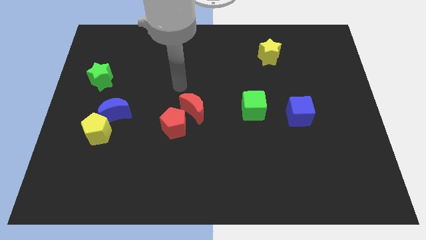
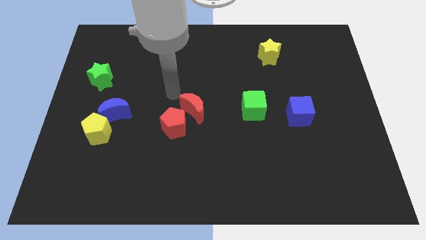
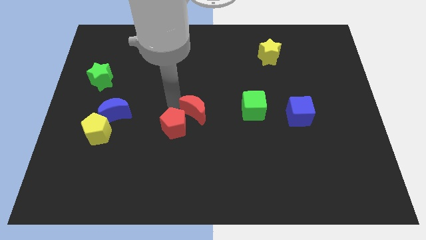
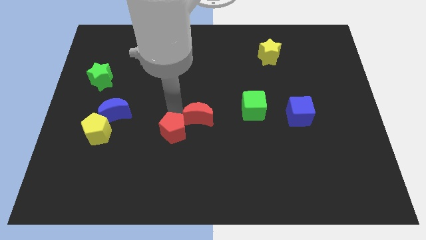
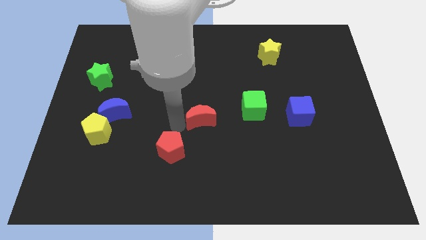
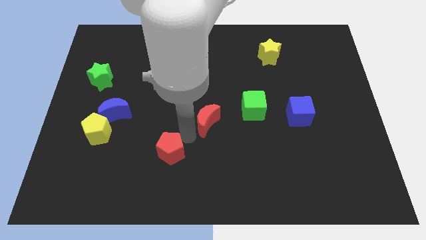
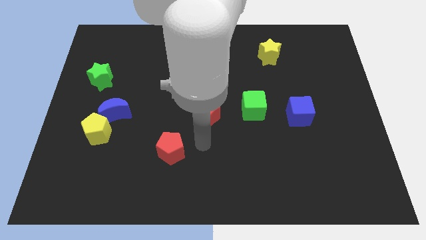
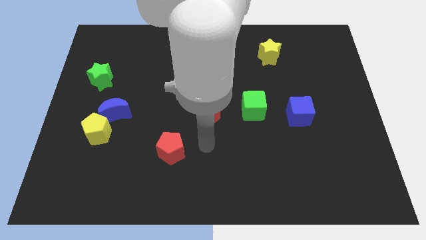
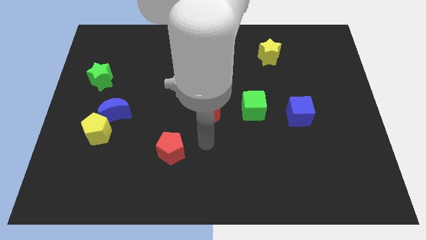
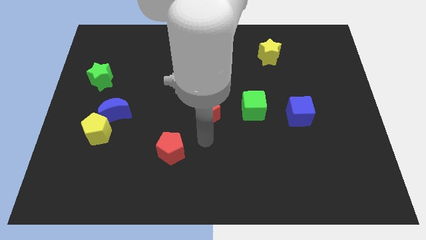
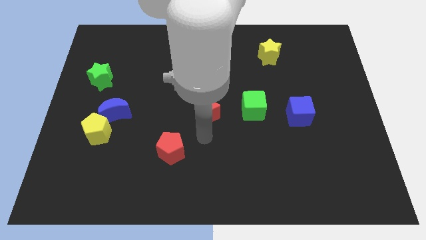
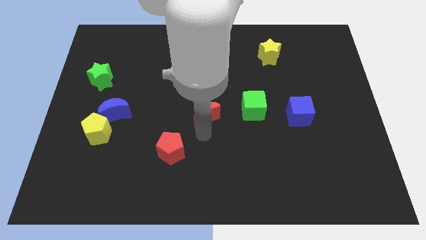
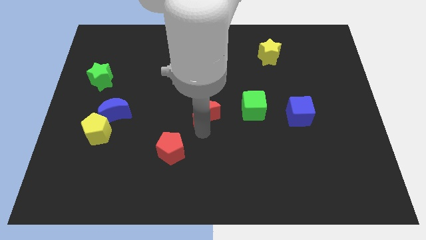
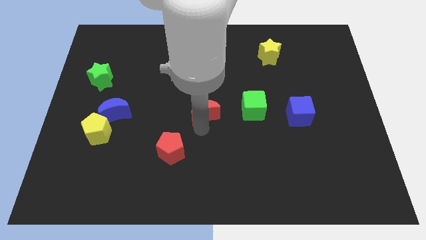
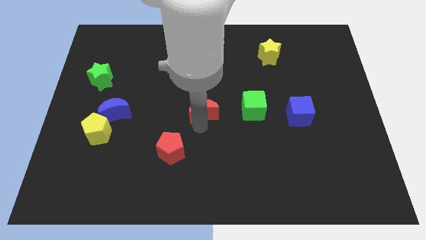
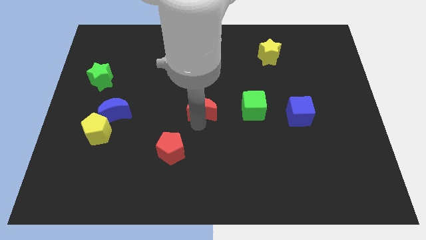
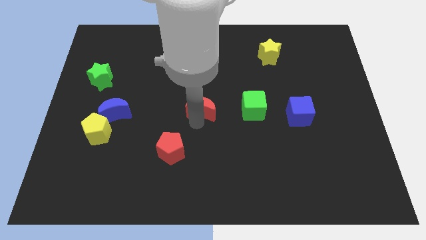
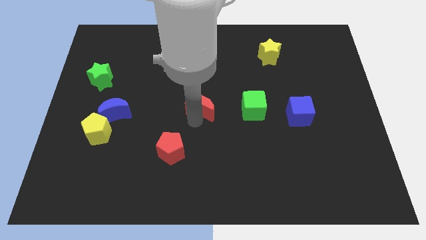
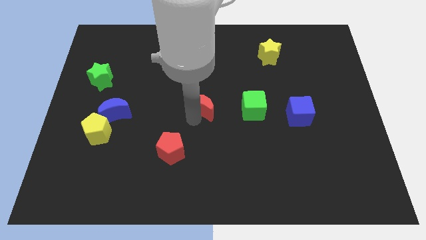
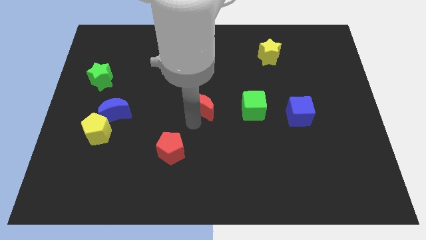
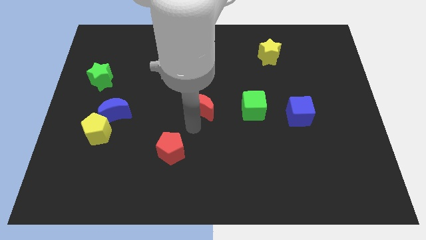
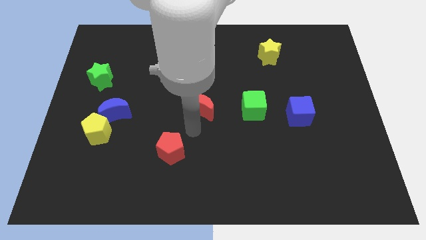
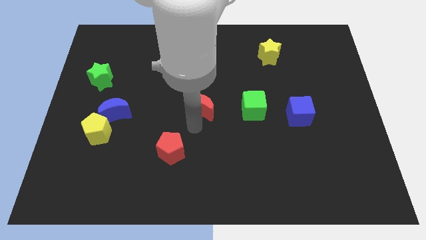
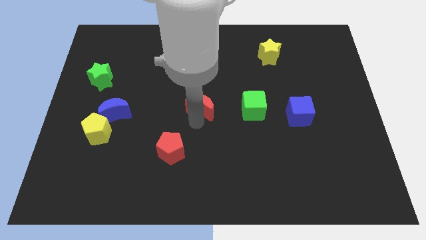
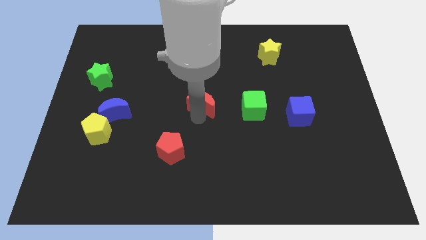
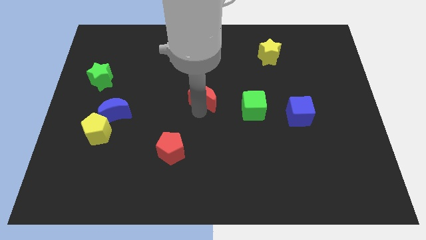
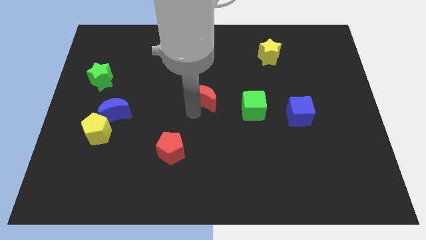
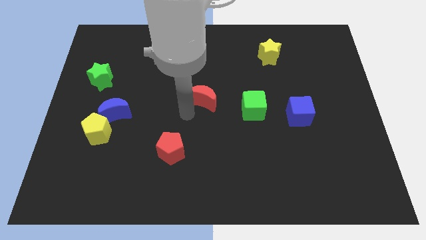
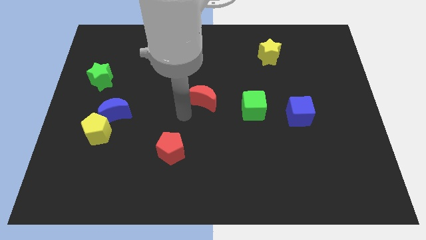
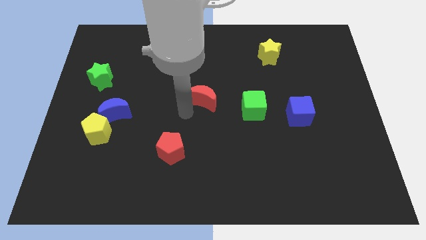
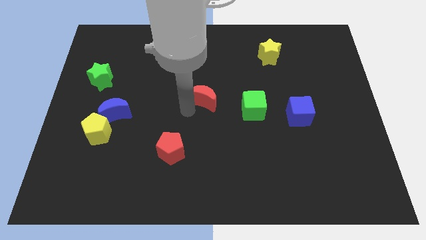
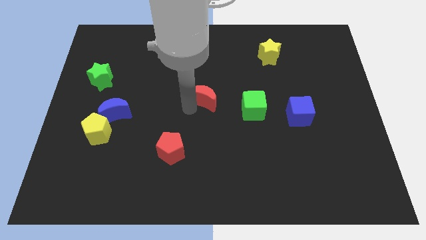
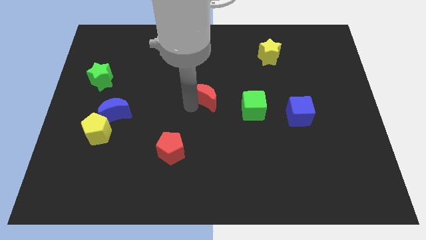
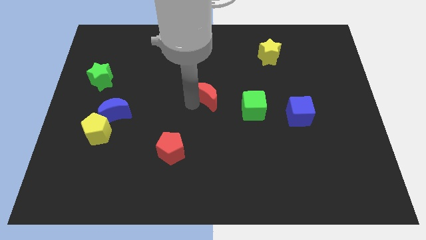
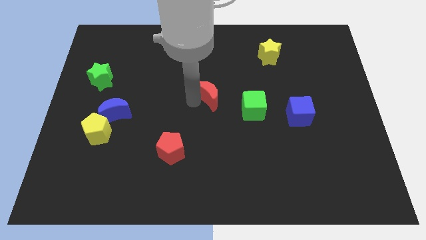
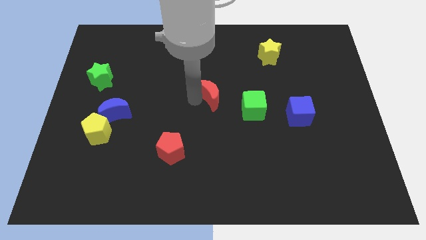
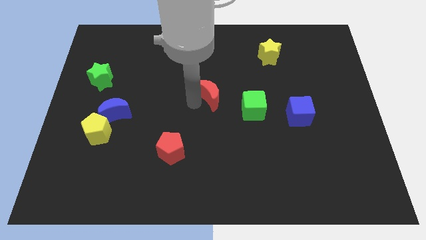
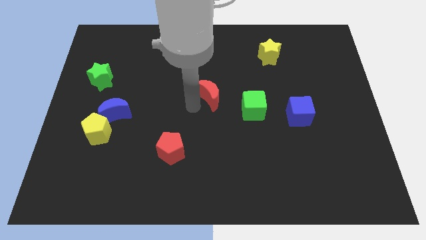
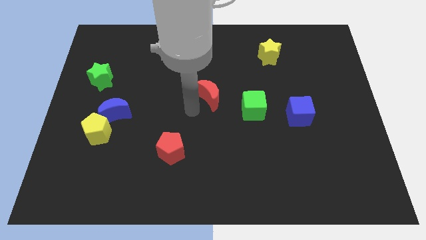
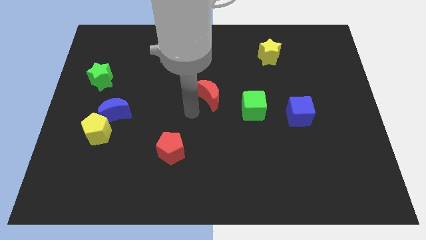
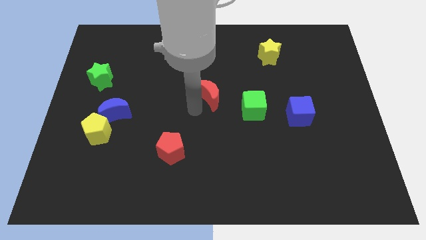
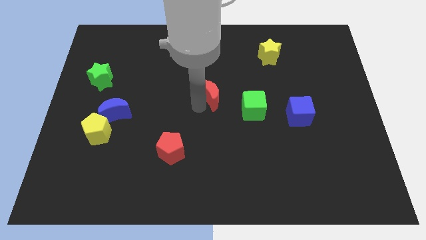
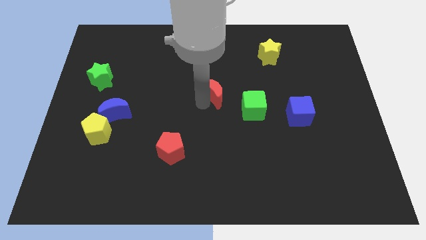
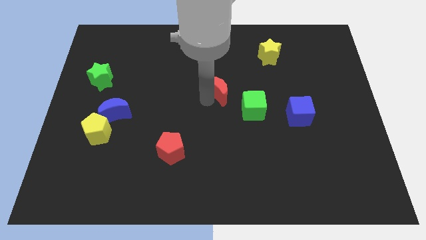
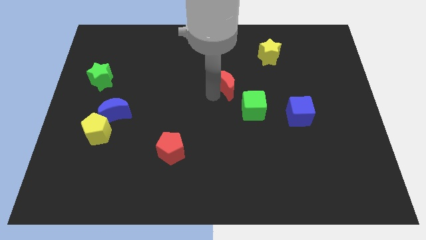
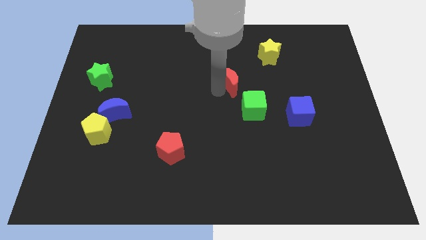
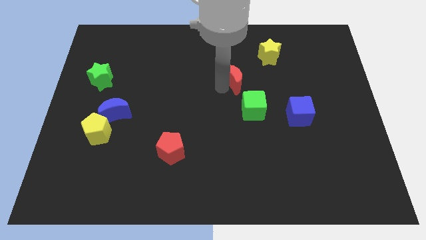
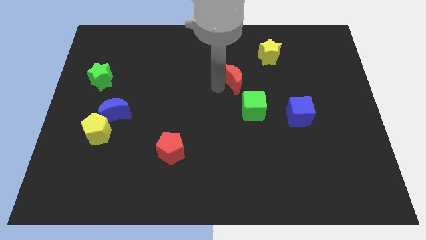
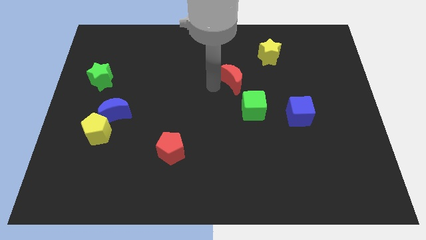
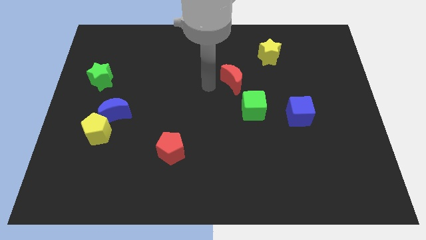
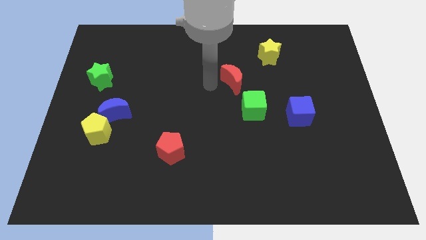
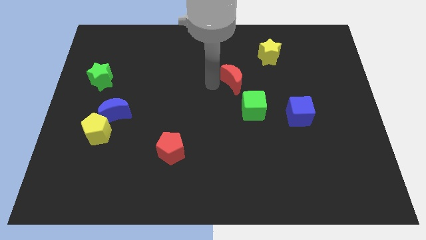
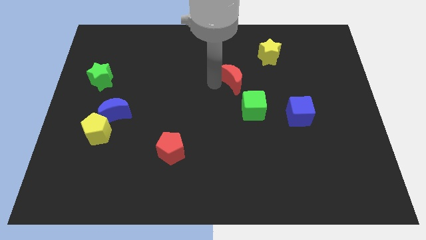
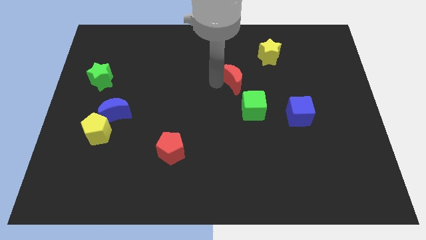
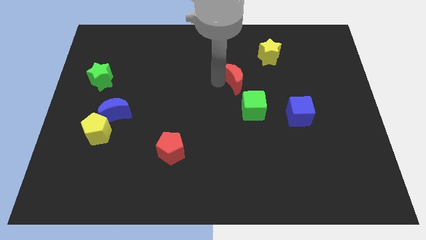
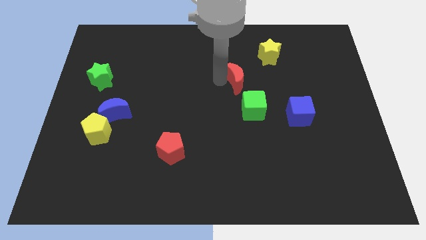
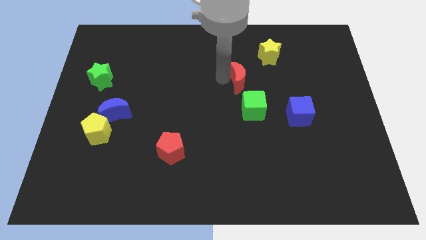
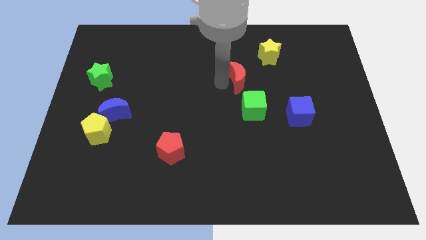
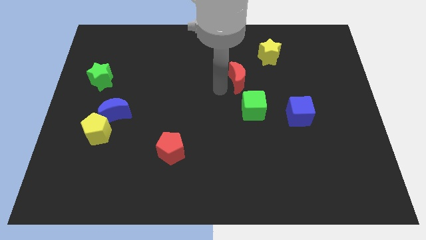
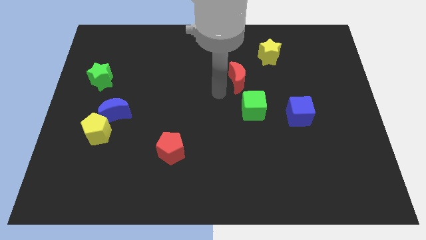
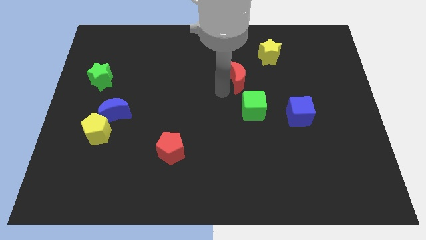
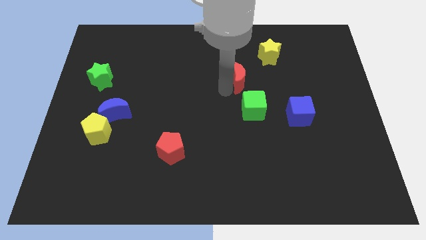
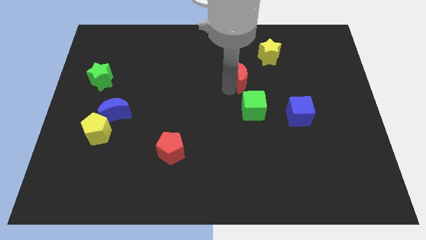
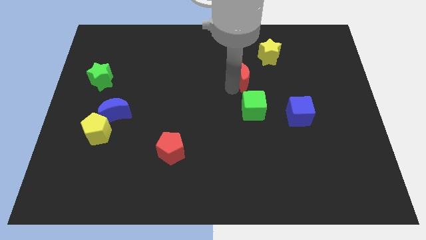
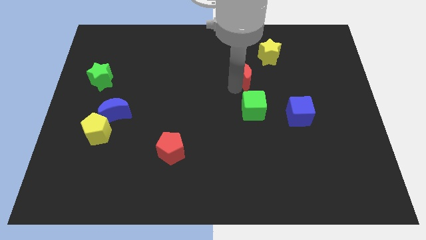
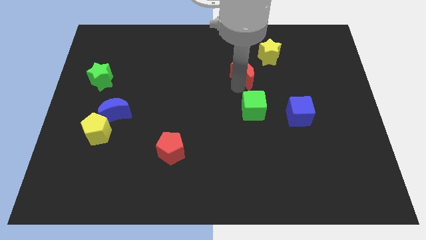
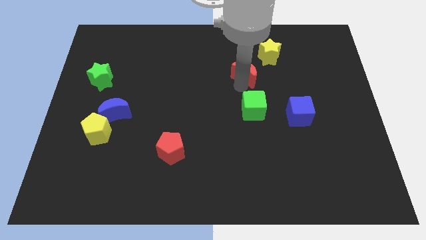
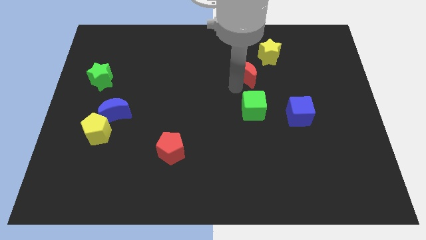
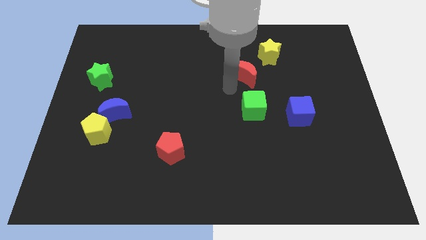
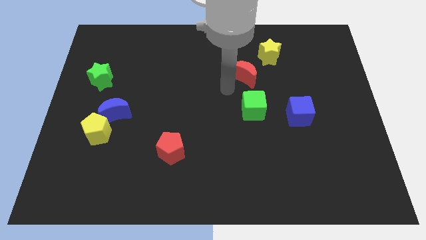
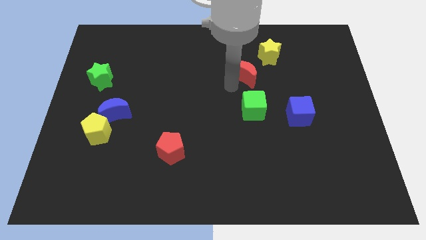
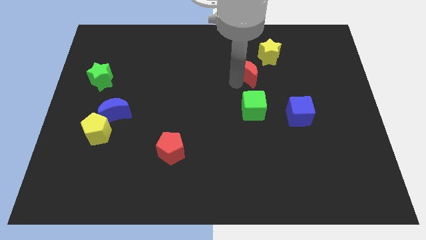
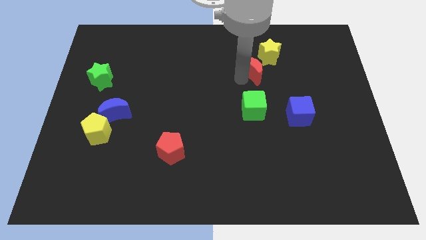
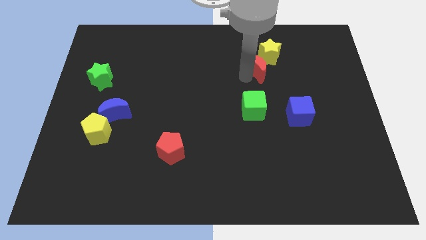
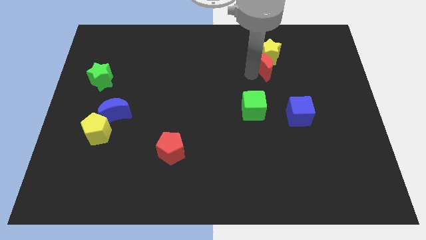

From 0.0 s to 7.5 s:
push the red moon close to the yellow star
